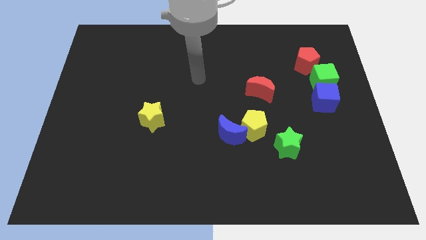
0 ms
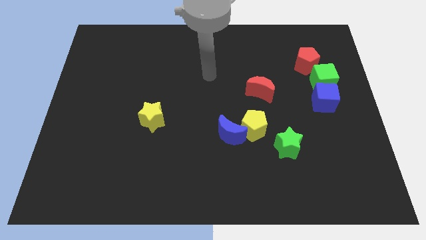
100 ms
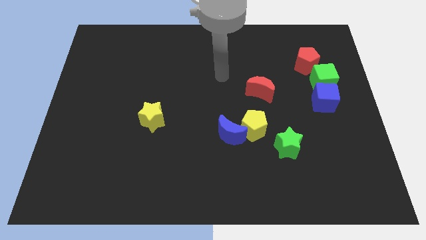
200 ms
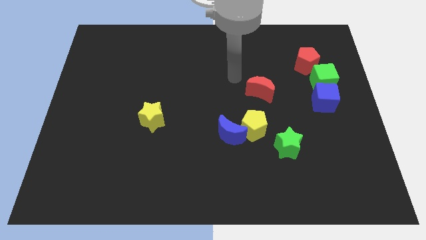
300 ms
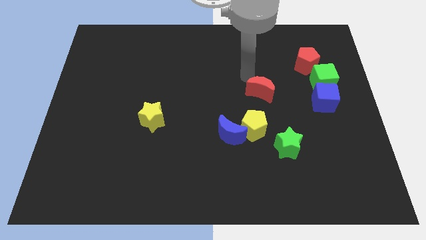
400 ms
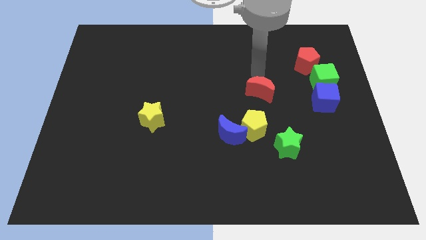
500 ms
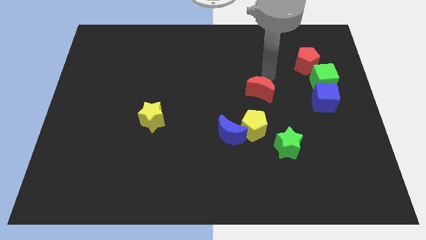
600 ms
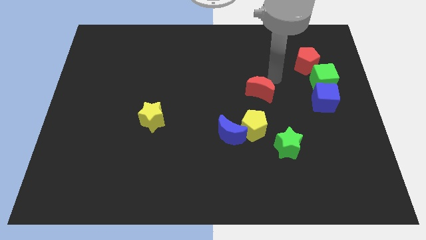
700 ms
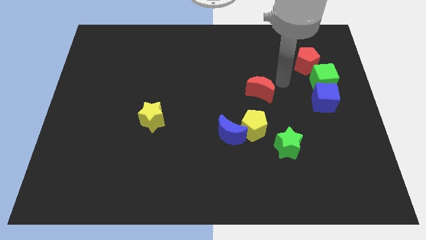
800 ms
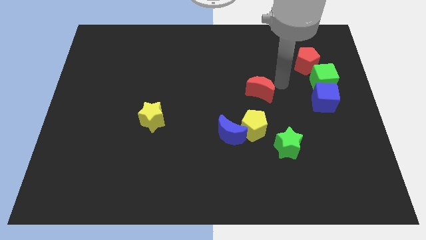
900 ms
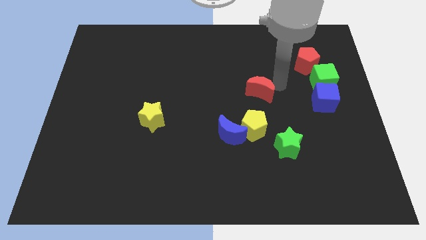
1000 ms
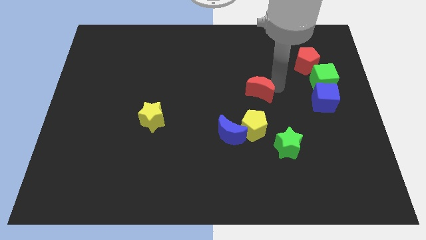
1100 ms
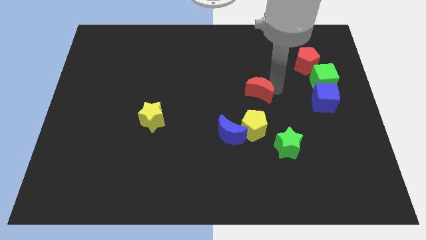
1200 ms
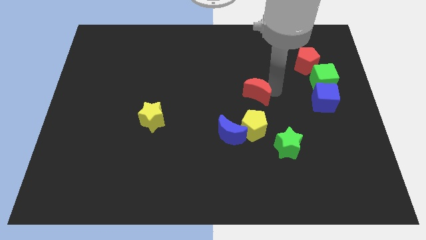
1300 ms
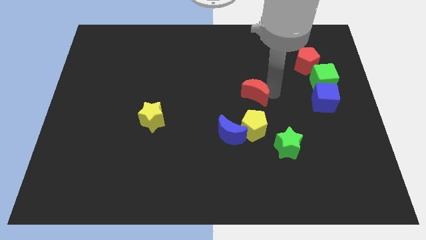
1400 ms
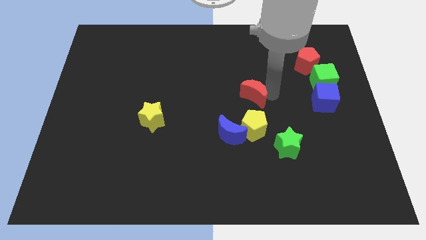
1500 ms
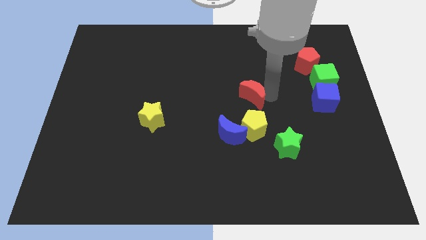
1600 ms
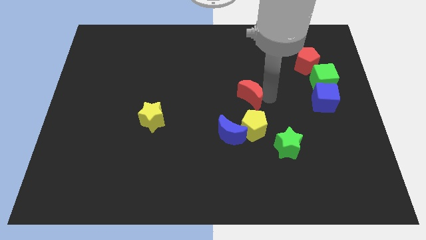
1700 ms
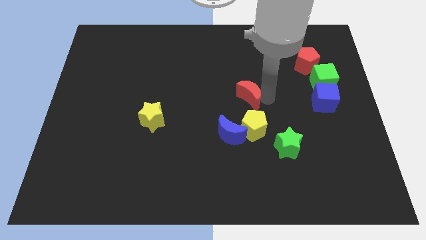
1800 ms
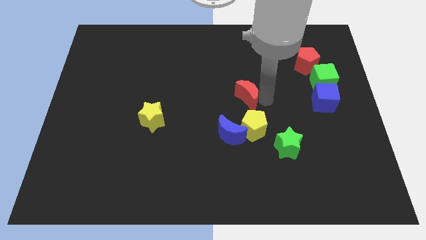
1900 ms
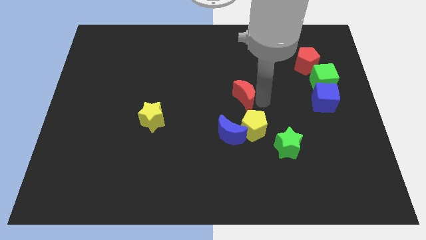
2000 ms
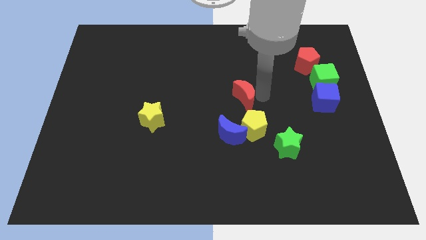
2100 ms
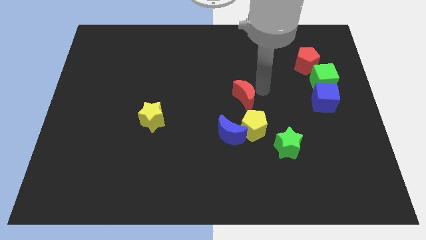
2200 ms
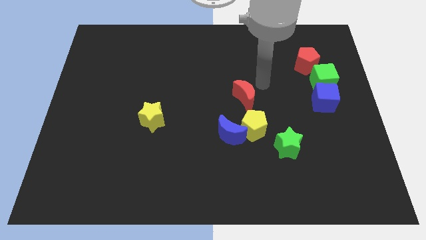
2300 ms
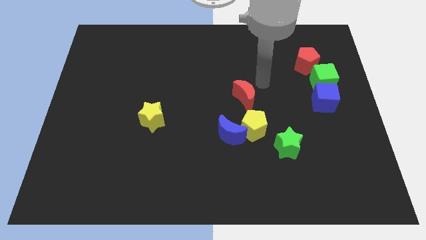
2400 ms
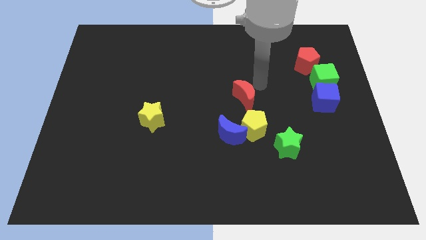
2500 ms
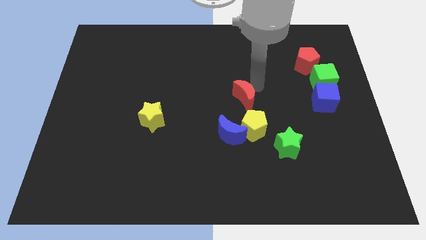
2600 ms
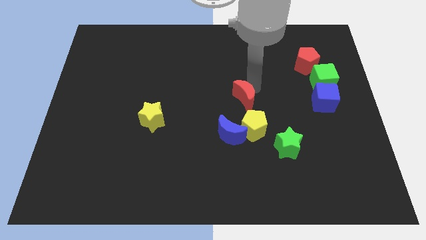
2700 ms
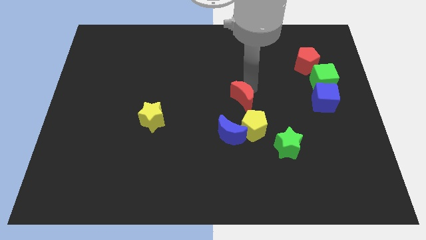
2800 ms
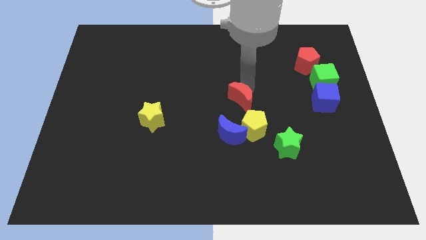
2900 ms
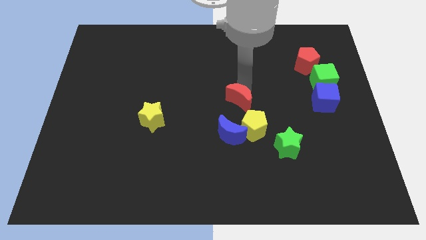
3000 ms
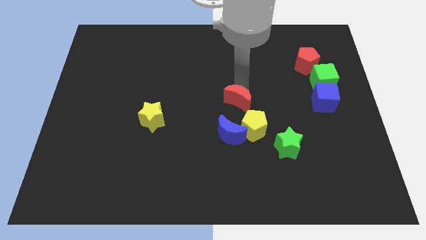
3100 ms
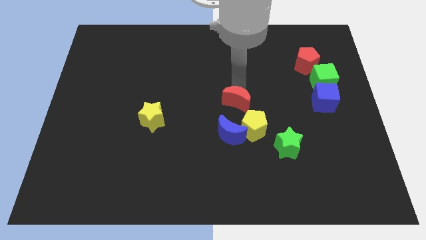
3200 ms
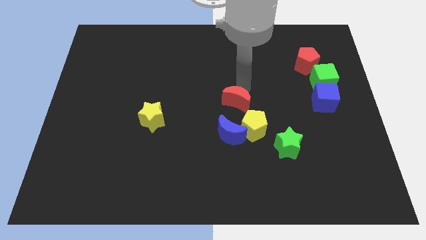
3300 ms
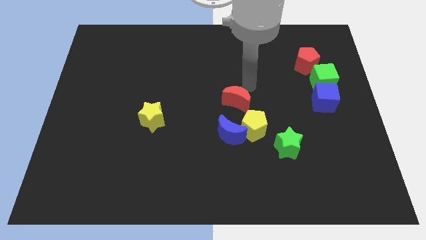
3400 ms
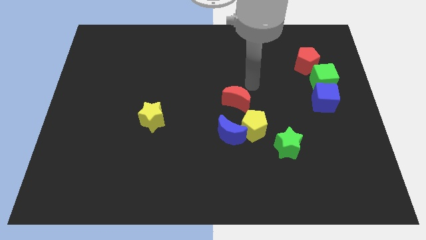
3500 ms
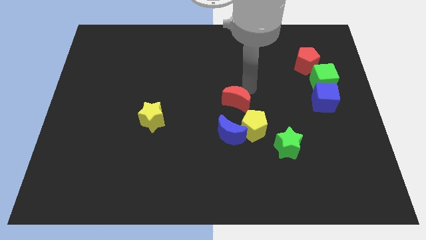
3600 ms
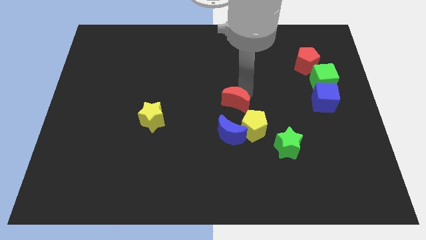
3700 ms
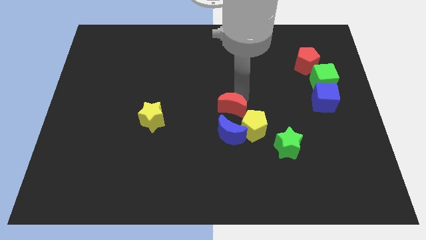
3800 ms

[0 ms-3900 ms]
slide the red moon downwards and to the left a bit

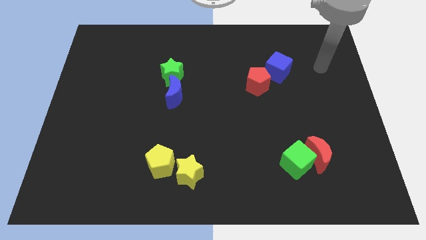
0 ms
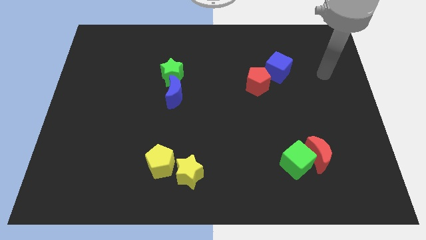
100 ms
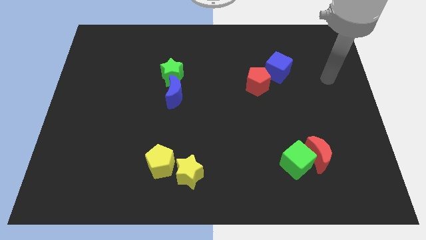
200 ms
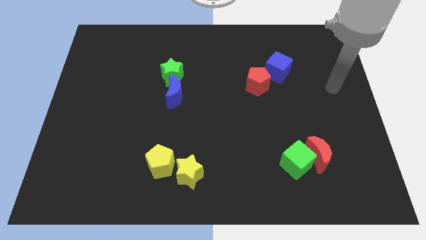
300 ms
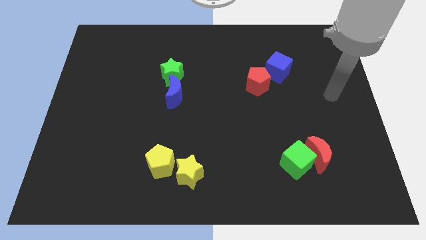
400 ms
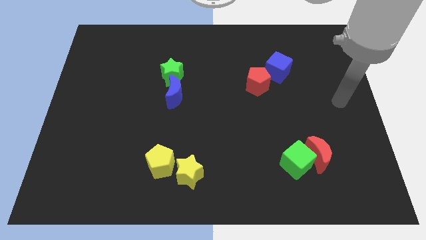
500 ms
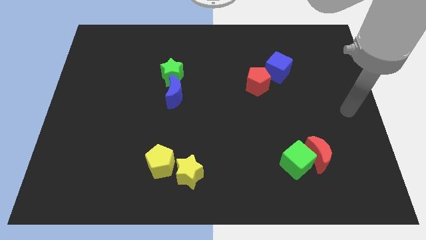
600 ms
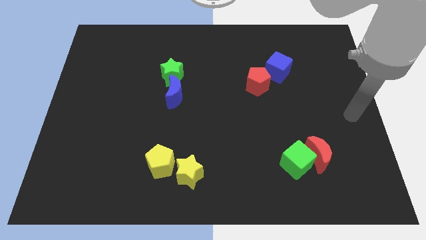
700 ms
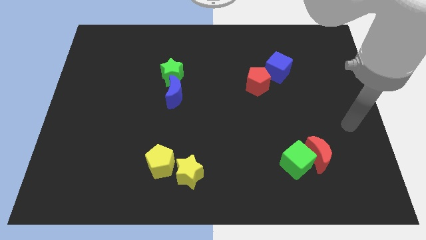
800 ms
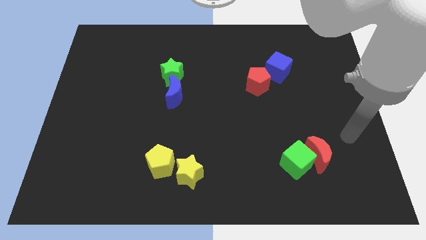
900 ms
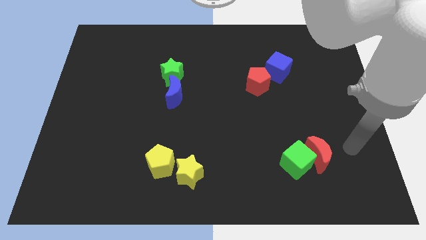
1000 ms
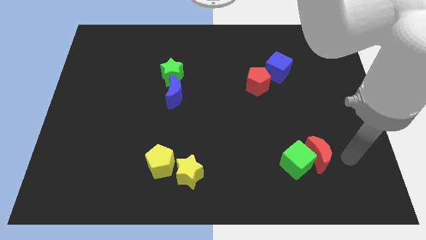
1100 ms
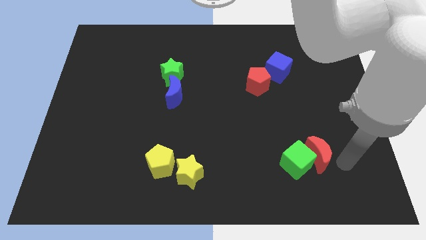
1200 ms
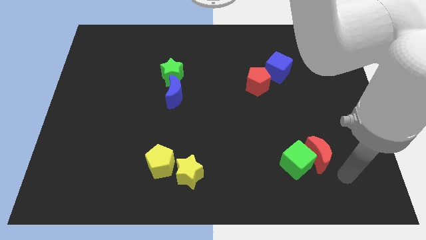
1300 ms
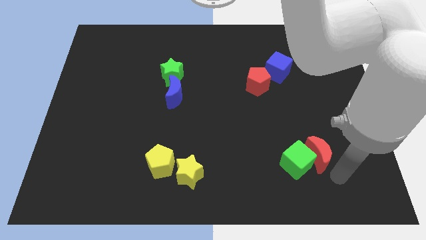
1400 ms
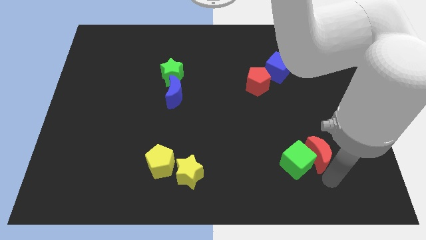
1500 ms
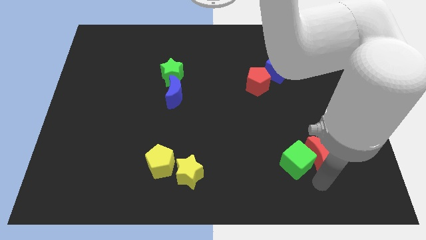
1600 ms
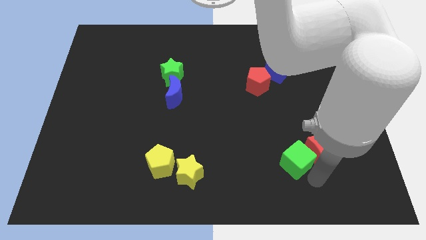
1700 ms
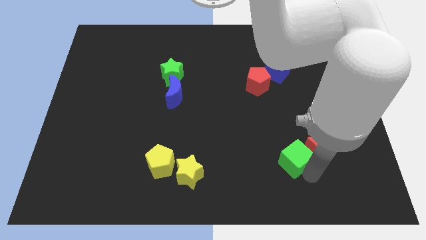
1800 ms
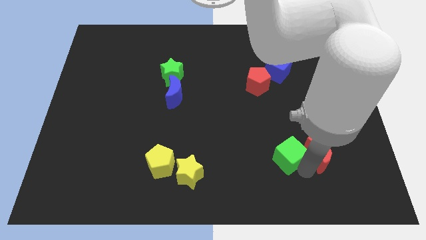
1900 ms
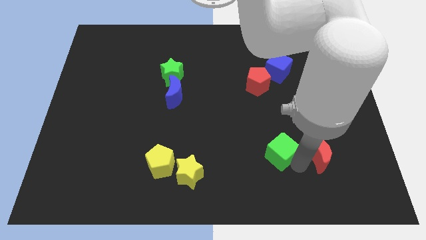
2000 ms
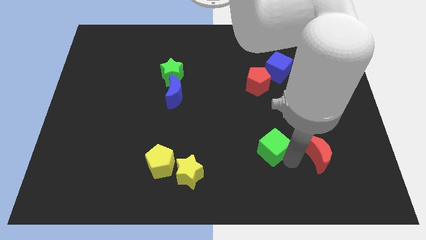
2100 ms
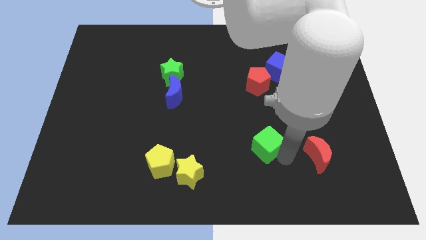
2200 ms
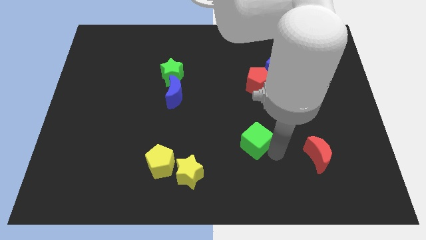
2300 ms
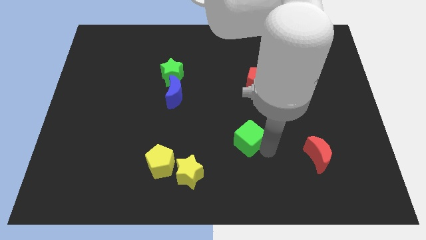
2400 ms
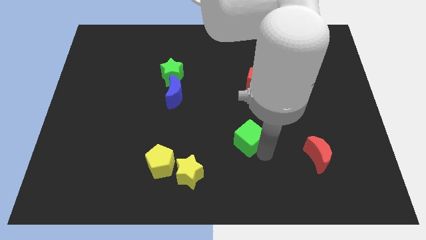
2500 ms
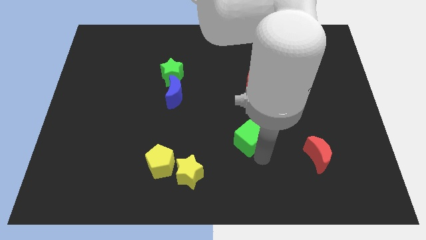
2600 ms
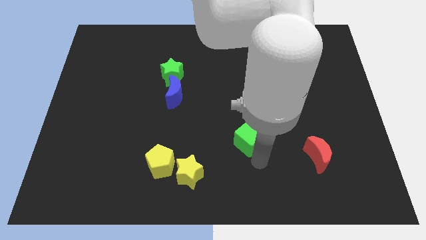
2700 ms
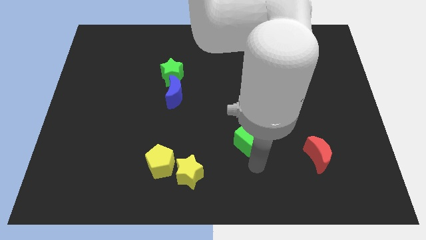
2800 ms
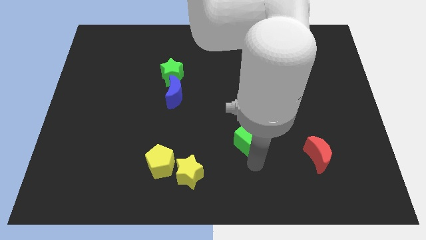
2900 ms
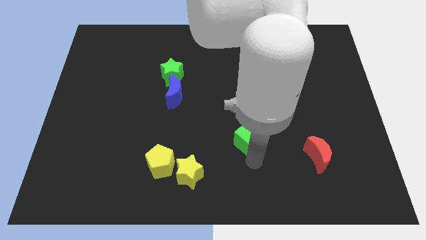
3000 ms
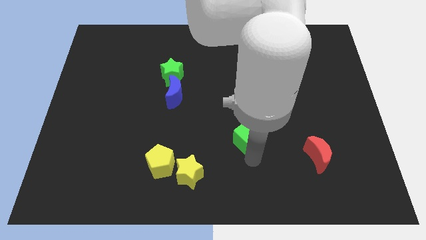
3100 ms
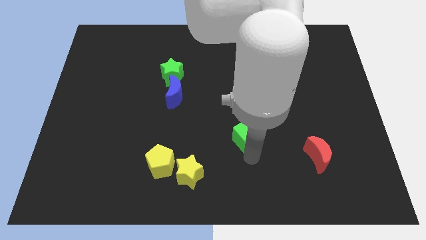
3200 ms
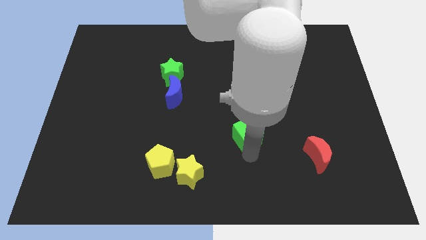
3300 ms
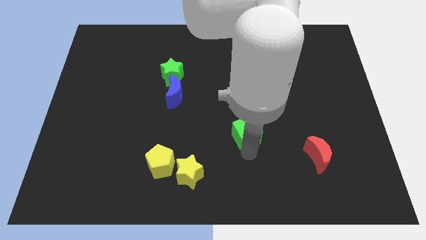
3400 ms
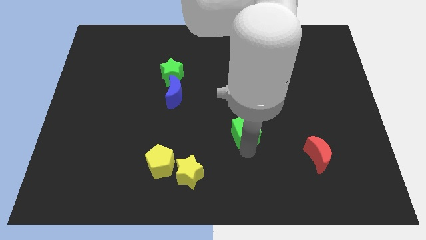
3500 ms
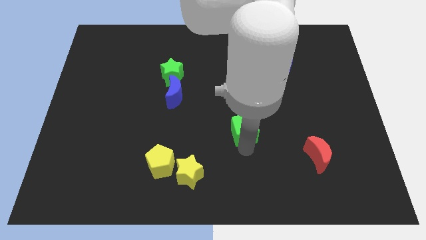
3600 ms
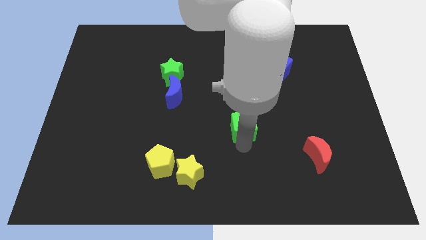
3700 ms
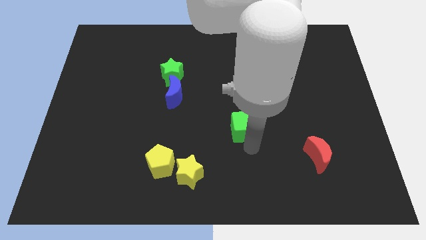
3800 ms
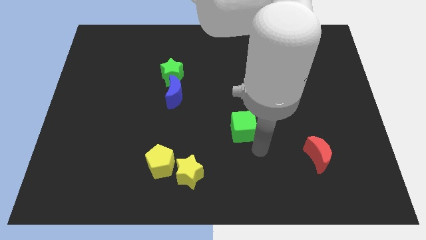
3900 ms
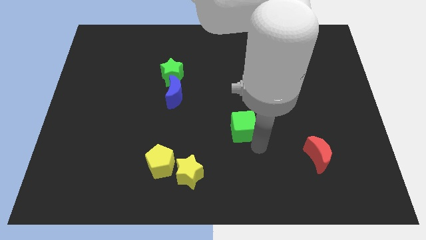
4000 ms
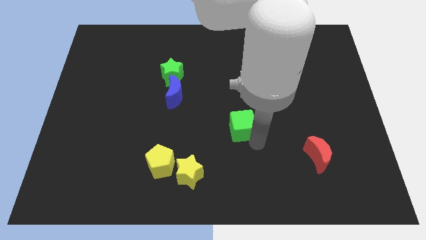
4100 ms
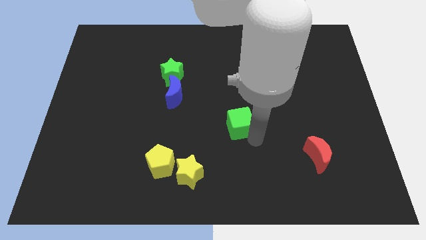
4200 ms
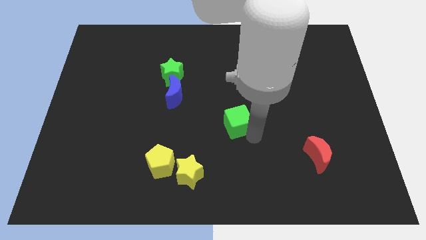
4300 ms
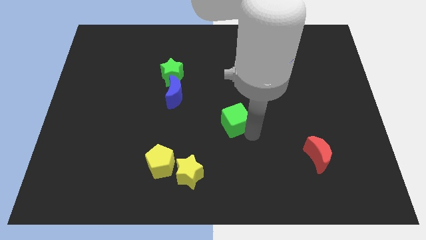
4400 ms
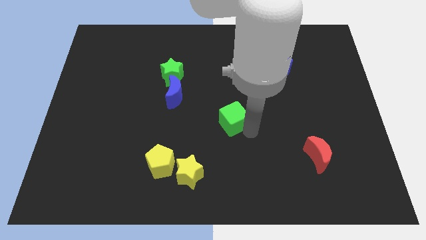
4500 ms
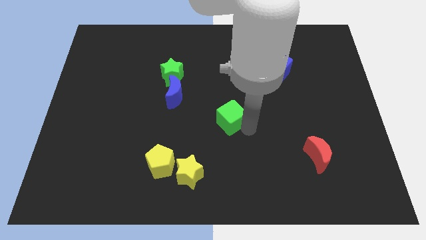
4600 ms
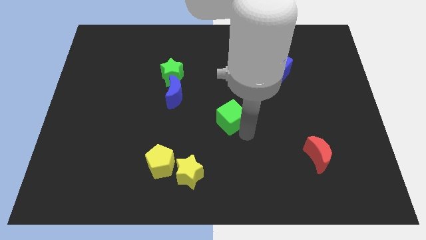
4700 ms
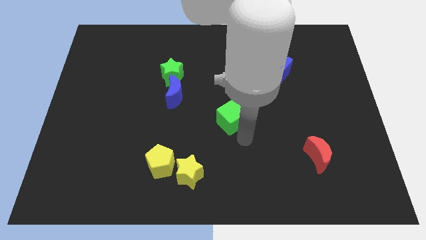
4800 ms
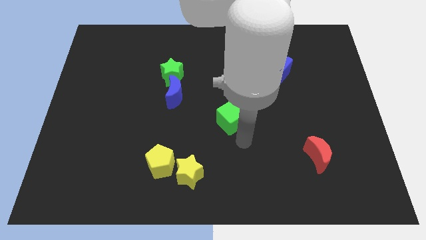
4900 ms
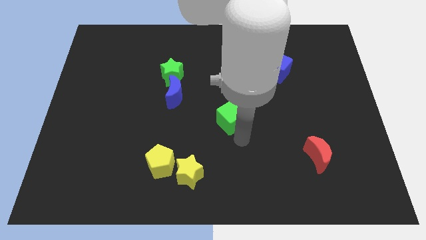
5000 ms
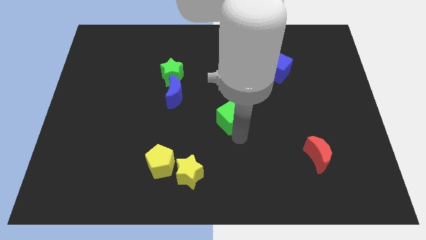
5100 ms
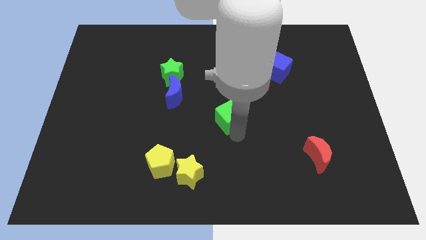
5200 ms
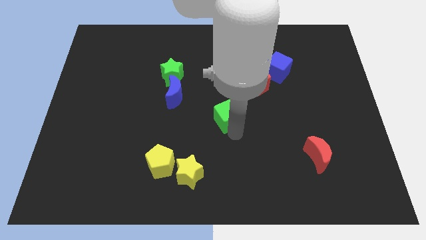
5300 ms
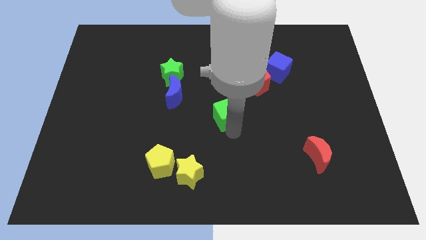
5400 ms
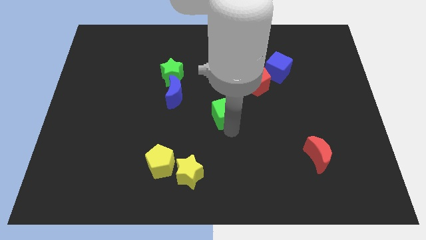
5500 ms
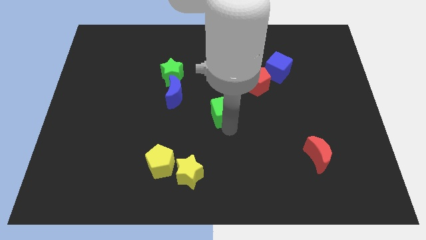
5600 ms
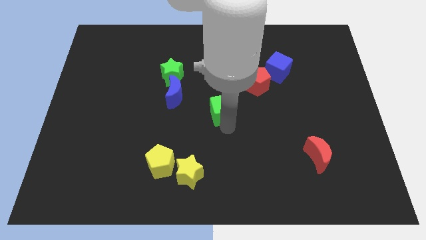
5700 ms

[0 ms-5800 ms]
move the green cube up and then to the left
